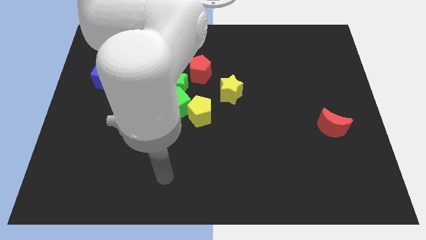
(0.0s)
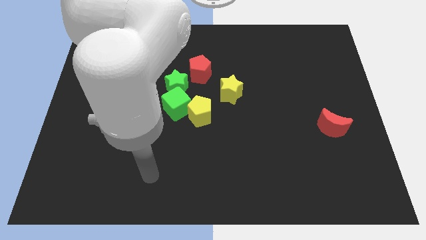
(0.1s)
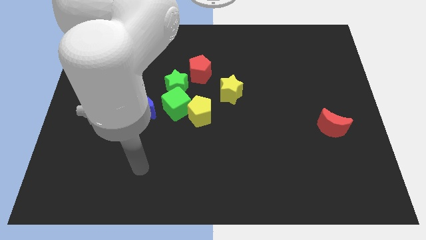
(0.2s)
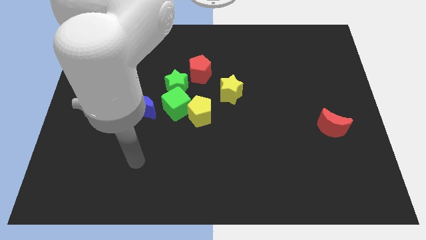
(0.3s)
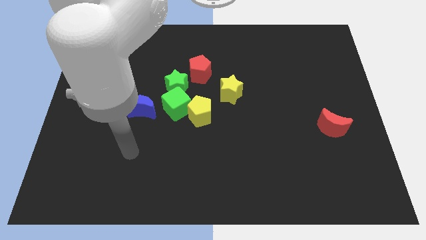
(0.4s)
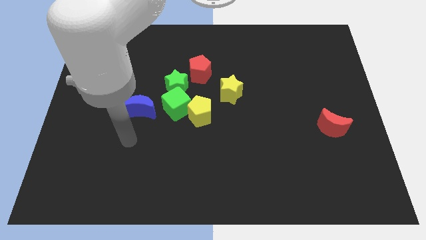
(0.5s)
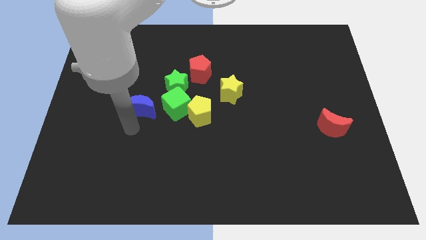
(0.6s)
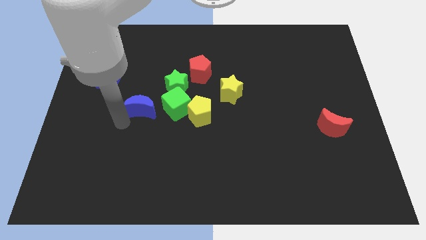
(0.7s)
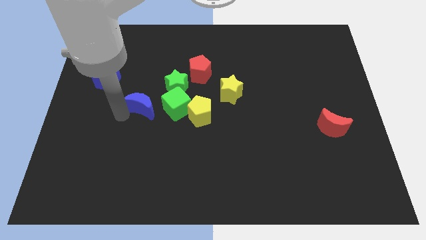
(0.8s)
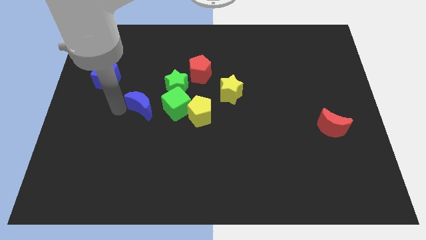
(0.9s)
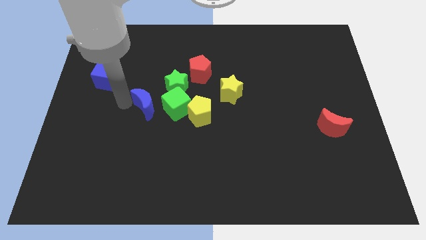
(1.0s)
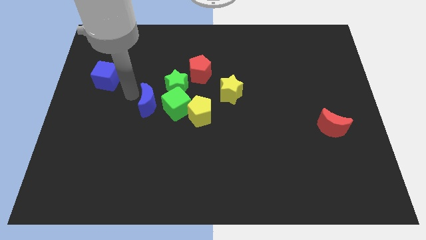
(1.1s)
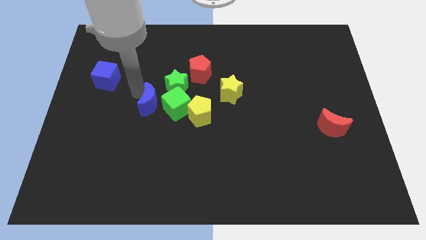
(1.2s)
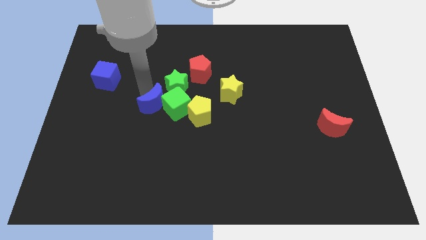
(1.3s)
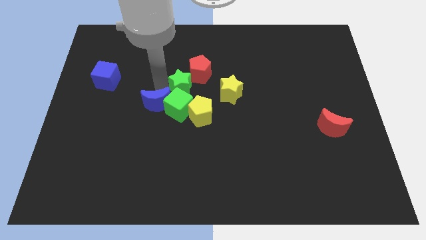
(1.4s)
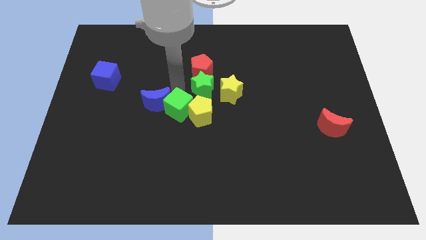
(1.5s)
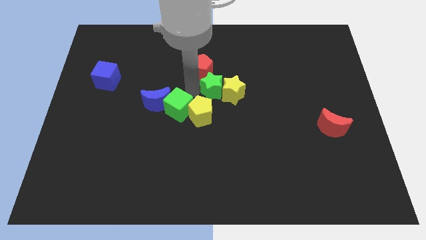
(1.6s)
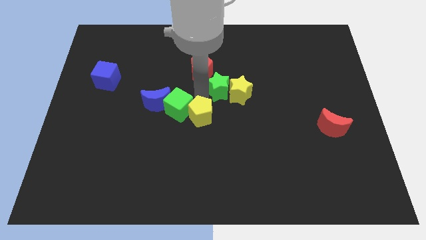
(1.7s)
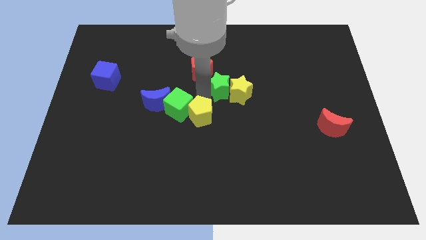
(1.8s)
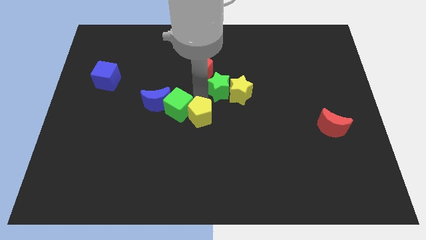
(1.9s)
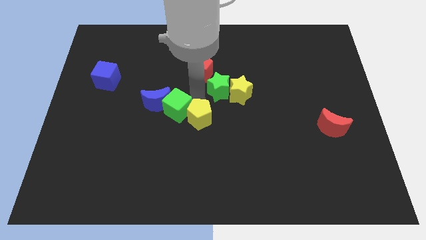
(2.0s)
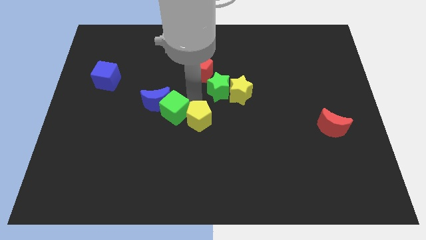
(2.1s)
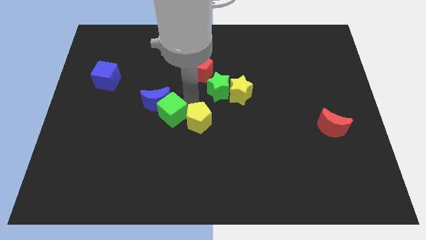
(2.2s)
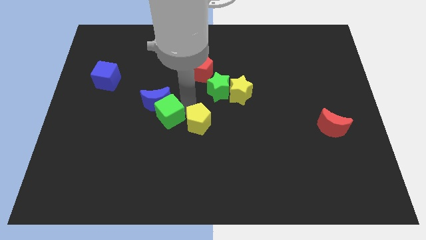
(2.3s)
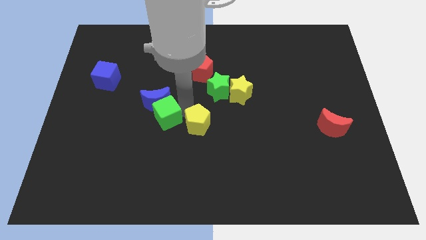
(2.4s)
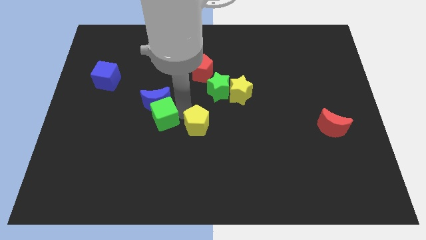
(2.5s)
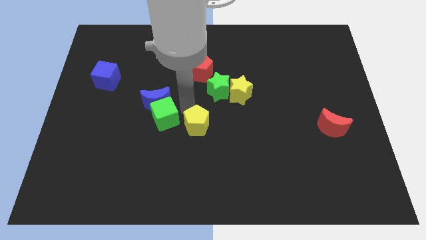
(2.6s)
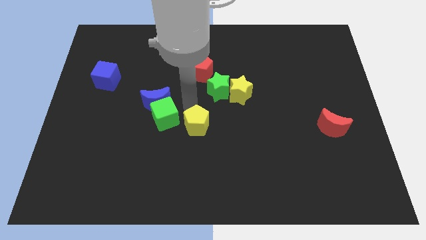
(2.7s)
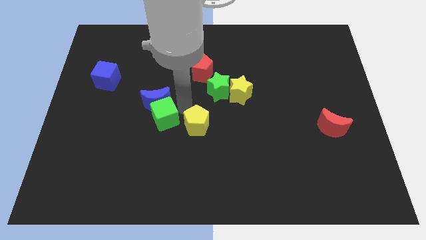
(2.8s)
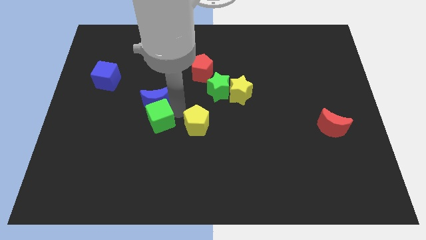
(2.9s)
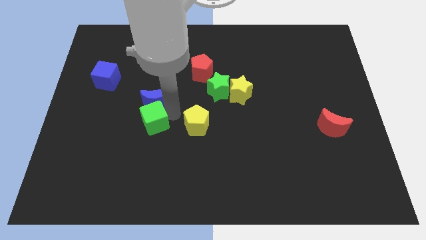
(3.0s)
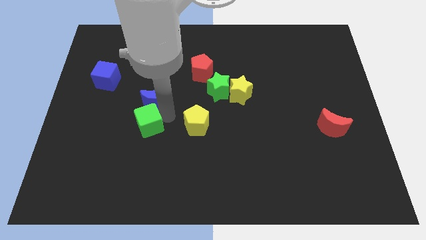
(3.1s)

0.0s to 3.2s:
separate the green cube from the green star, yellow pentagon, and blue moon

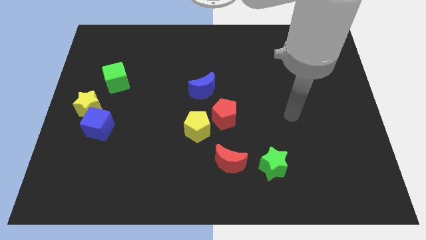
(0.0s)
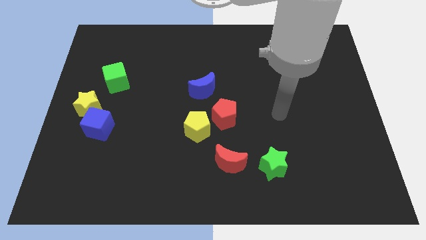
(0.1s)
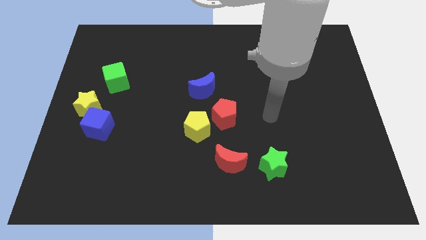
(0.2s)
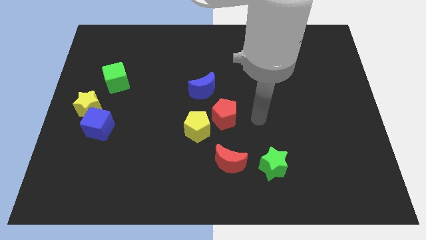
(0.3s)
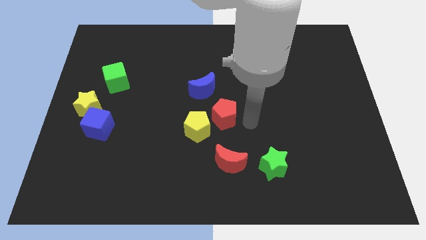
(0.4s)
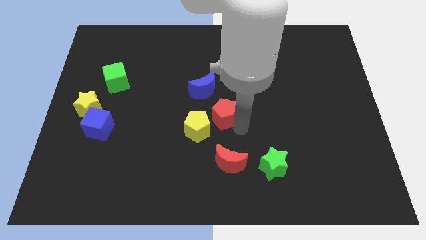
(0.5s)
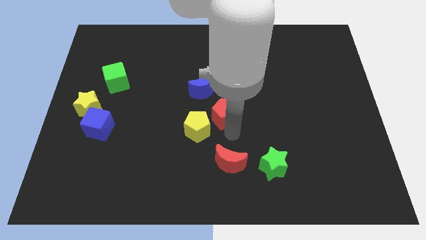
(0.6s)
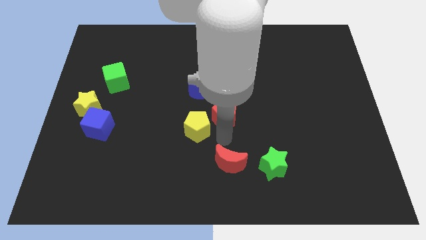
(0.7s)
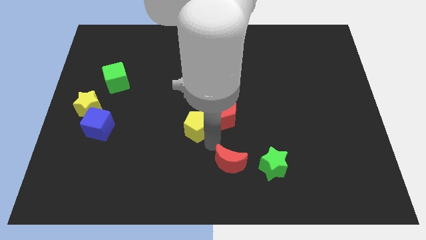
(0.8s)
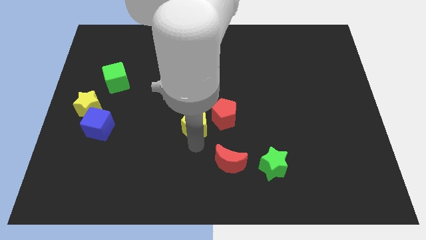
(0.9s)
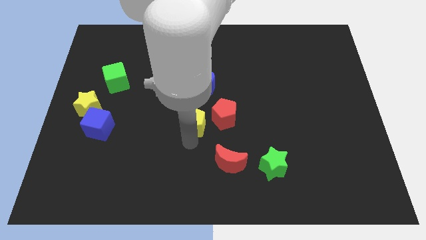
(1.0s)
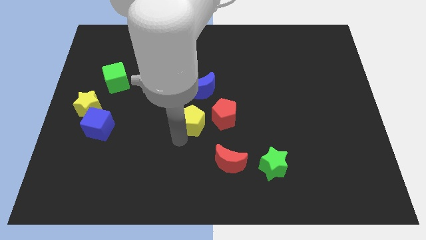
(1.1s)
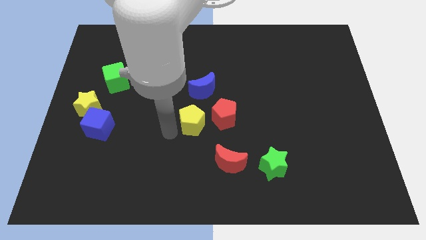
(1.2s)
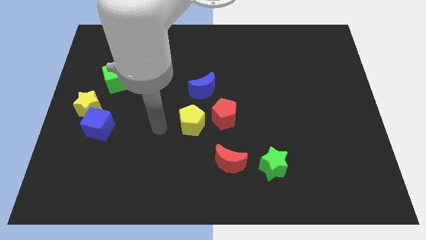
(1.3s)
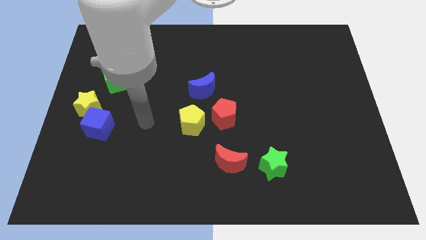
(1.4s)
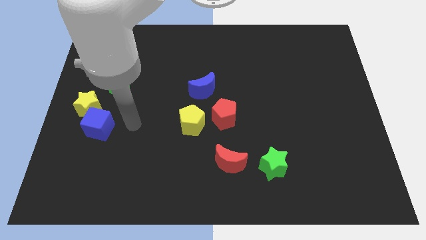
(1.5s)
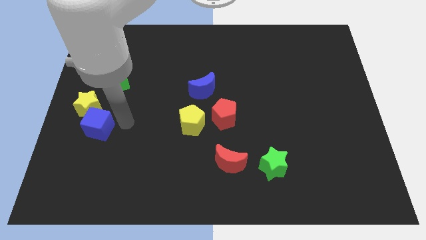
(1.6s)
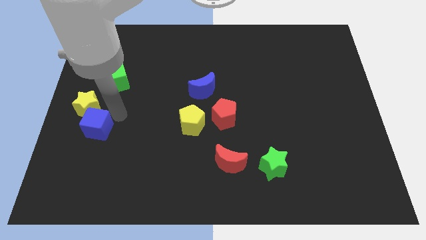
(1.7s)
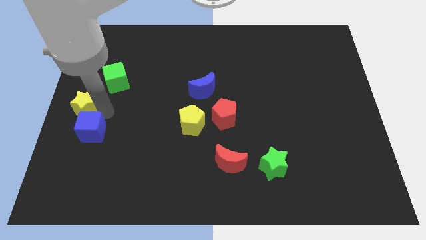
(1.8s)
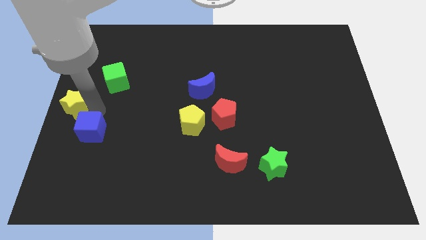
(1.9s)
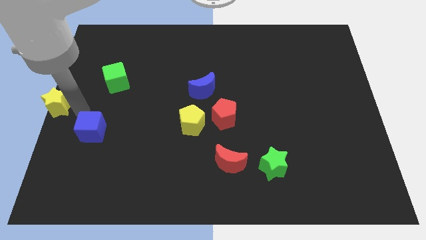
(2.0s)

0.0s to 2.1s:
separate the blue cube from the yellow star

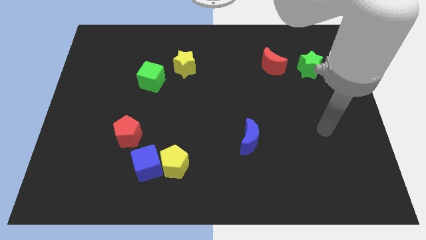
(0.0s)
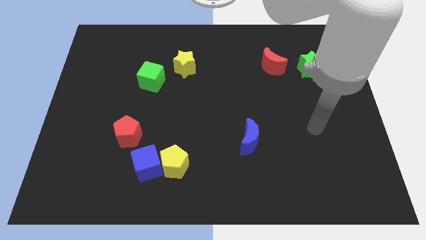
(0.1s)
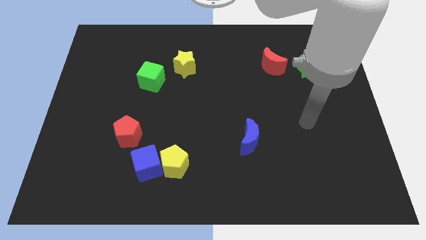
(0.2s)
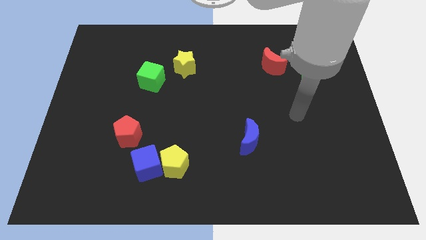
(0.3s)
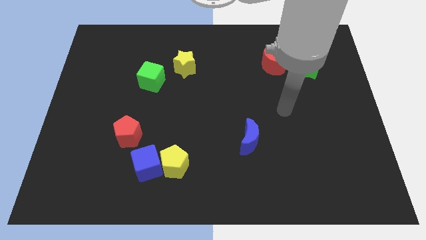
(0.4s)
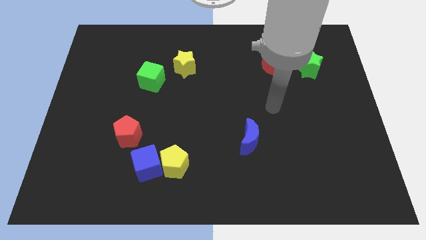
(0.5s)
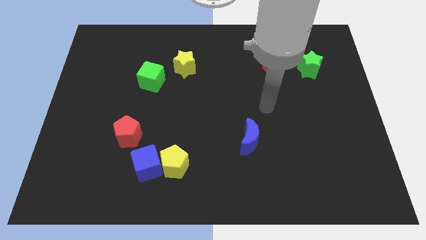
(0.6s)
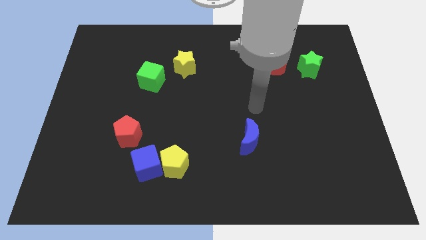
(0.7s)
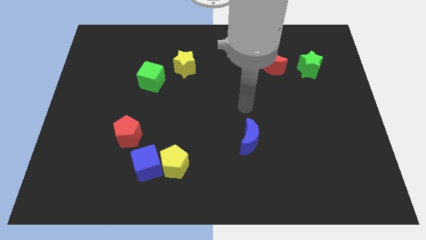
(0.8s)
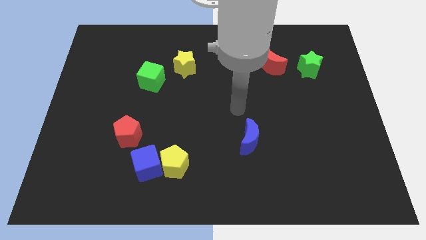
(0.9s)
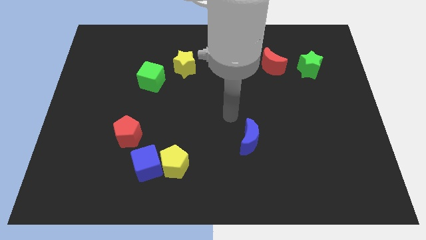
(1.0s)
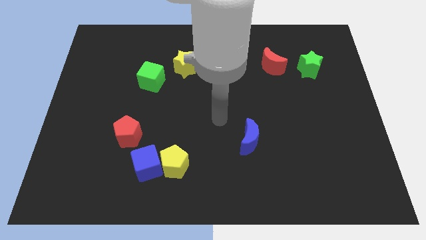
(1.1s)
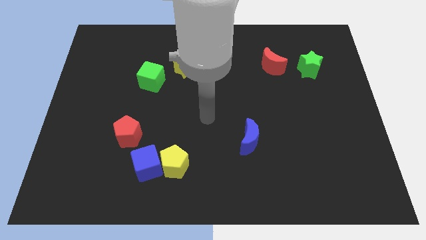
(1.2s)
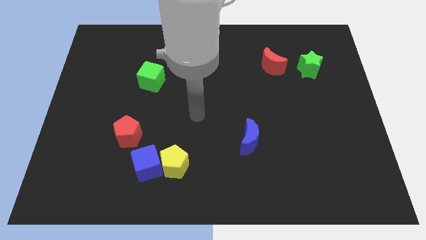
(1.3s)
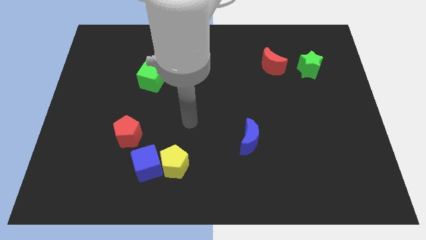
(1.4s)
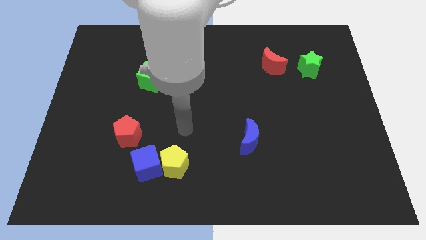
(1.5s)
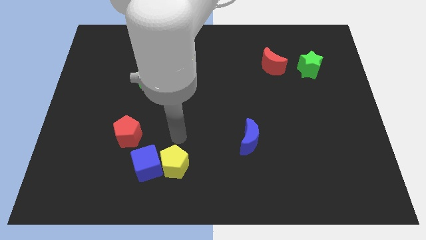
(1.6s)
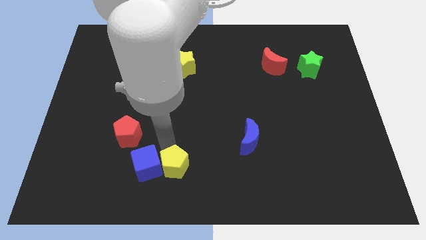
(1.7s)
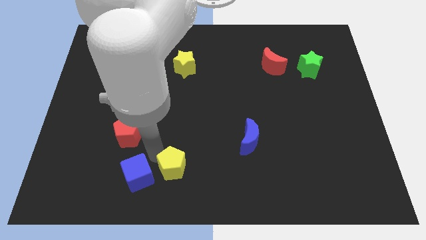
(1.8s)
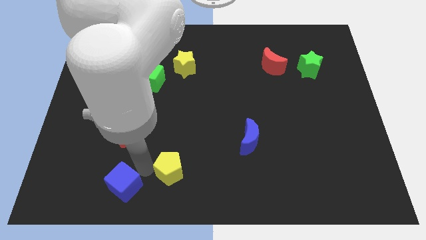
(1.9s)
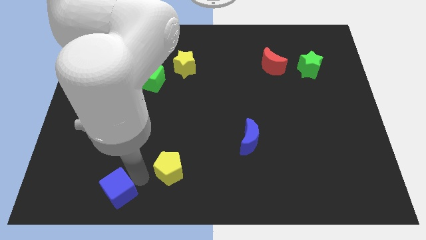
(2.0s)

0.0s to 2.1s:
separate the yellow pentagon from the blue cube

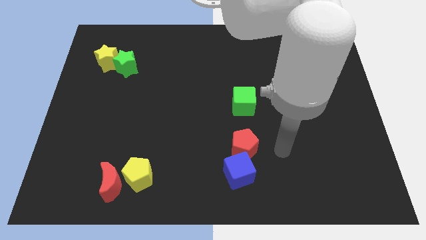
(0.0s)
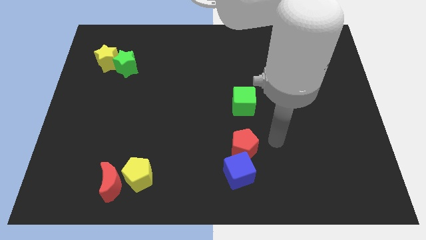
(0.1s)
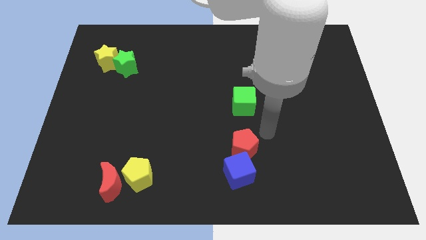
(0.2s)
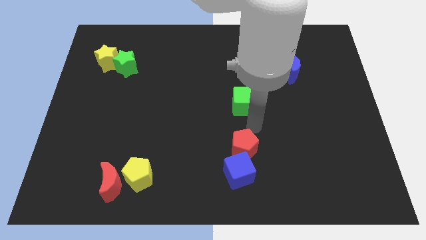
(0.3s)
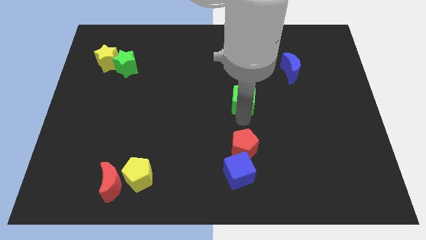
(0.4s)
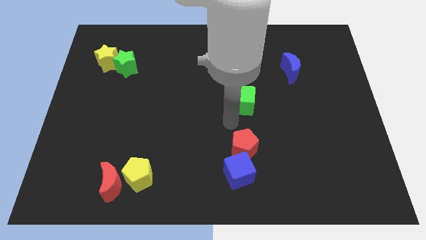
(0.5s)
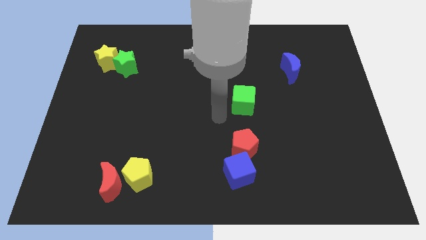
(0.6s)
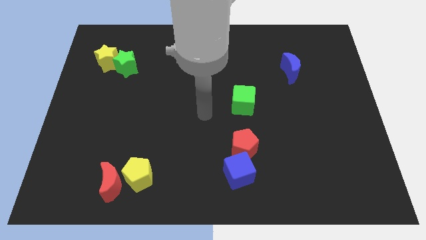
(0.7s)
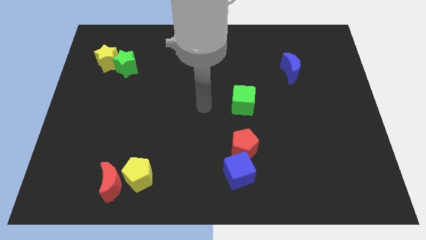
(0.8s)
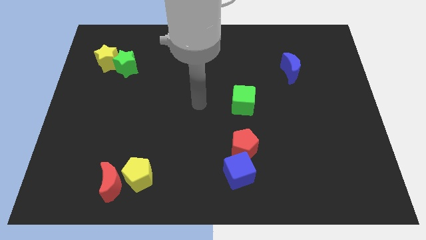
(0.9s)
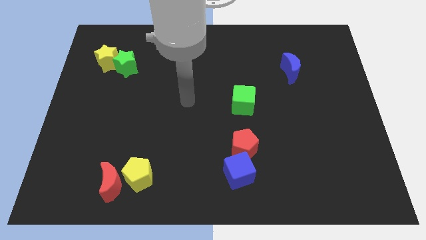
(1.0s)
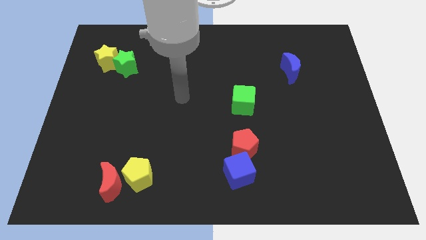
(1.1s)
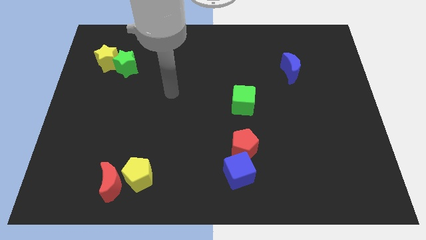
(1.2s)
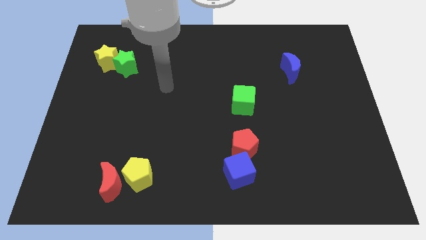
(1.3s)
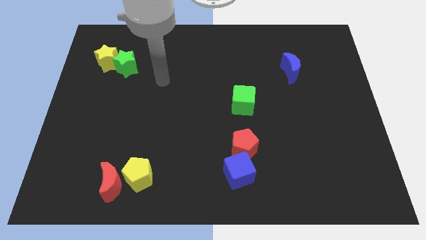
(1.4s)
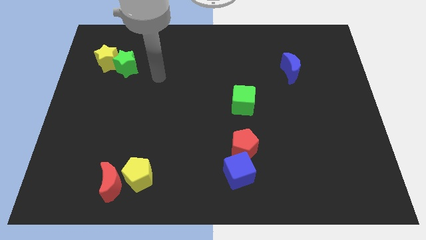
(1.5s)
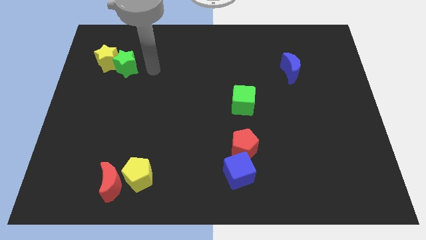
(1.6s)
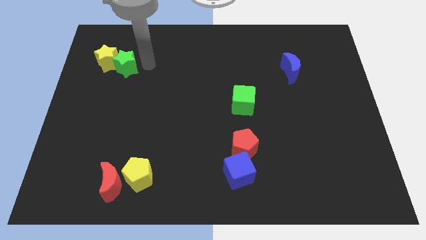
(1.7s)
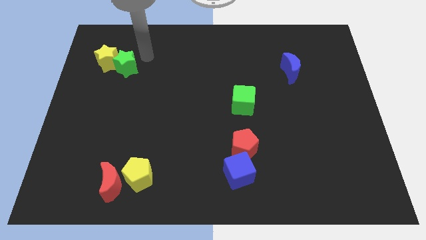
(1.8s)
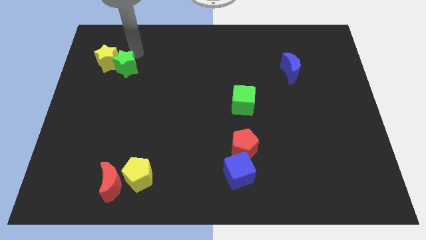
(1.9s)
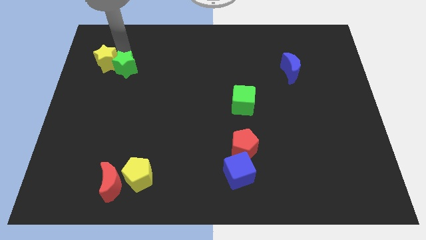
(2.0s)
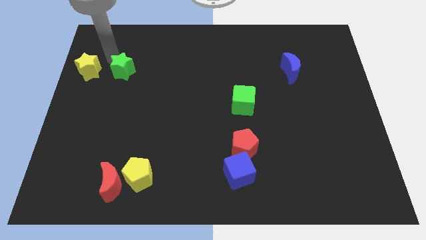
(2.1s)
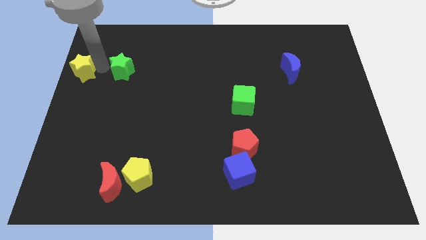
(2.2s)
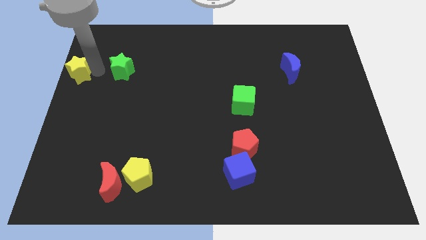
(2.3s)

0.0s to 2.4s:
separate the green star from the yellow star
